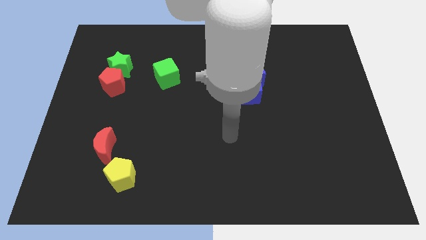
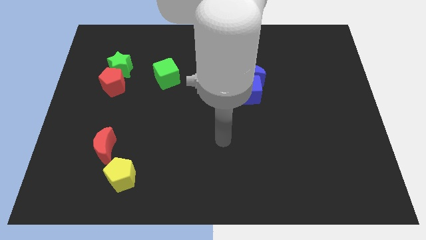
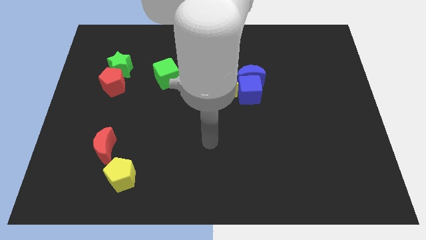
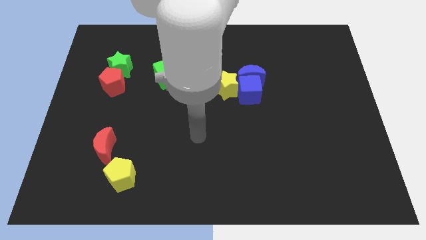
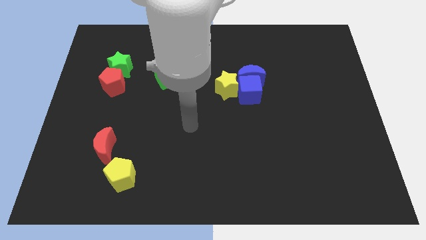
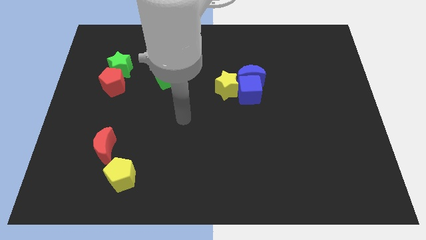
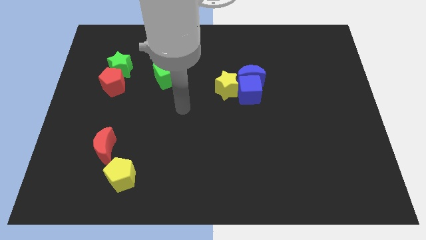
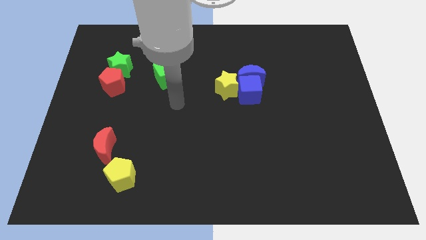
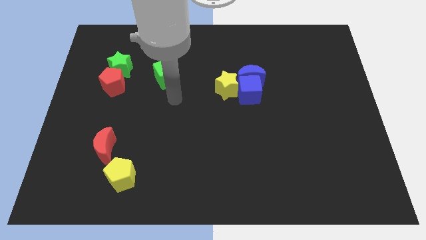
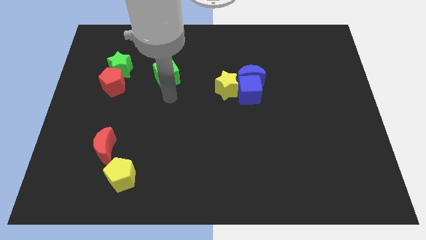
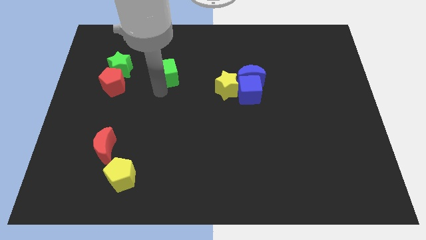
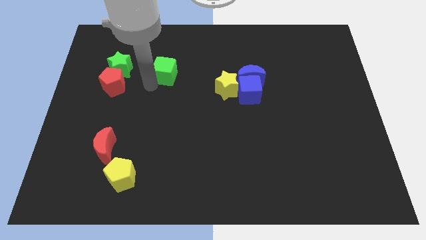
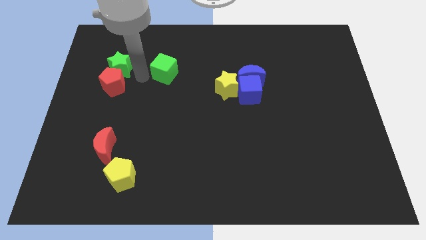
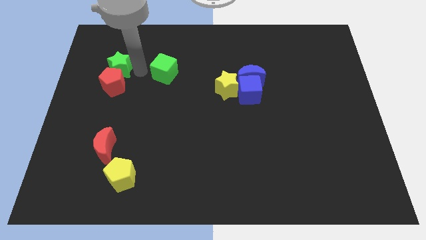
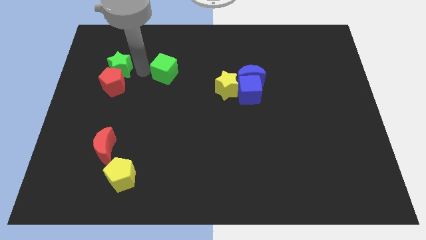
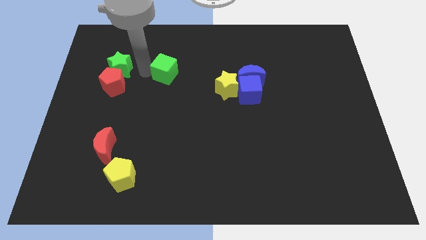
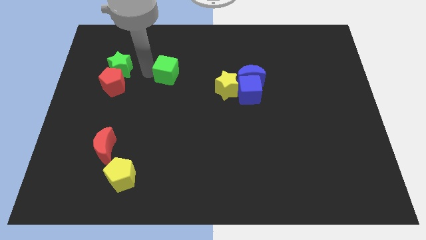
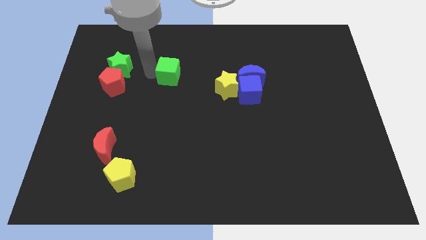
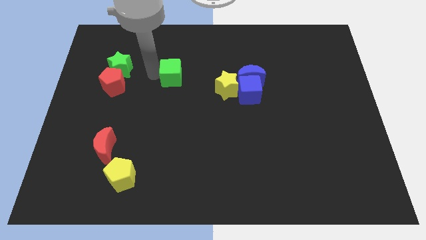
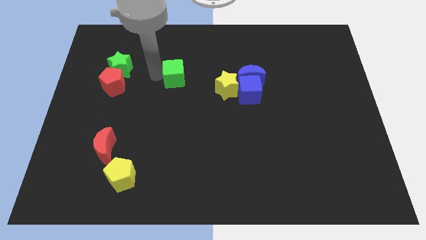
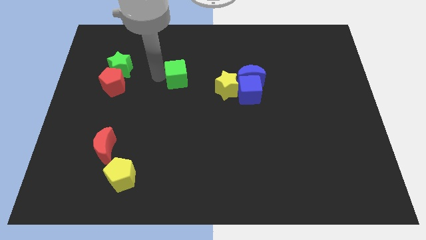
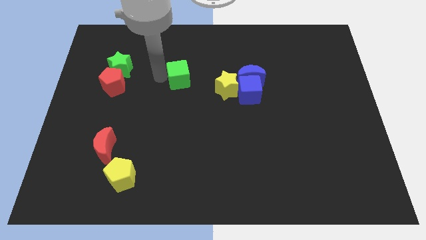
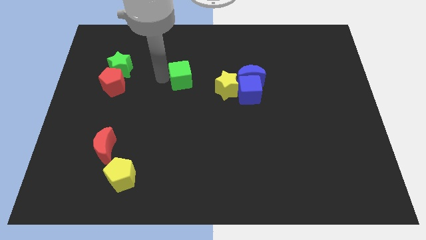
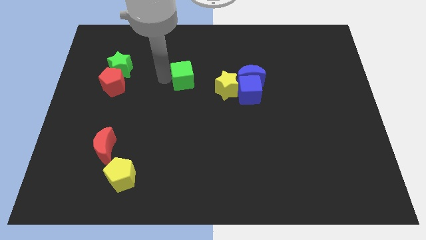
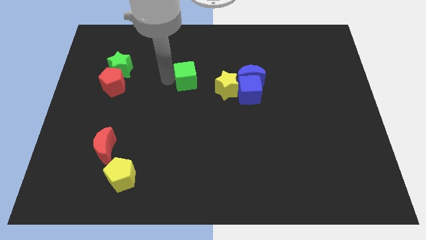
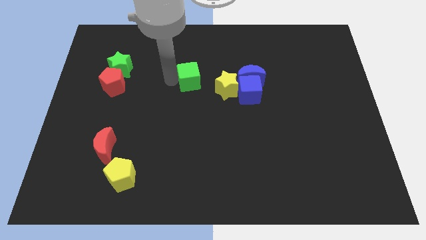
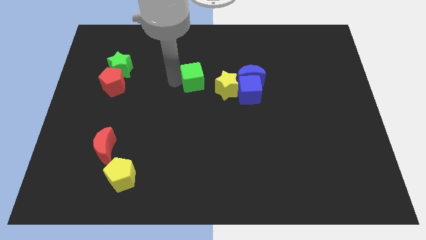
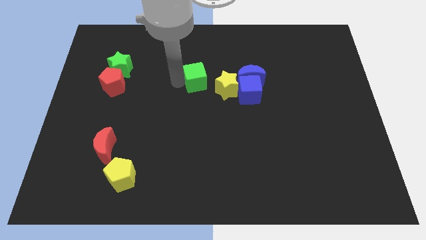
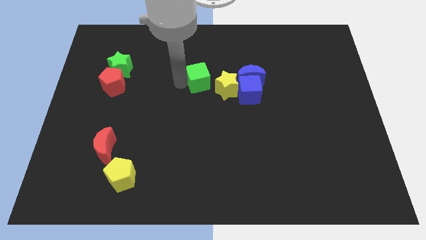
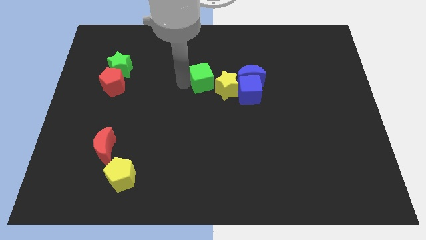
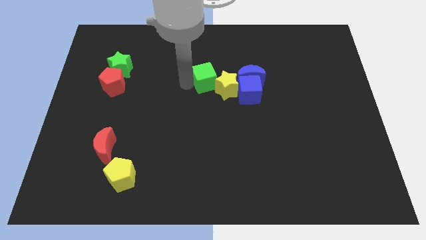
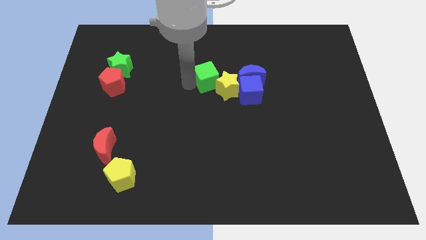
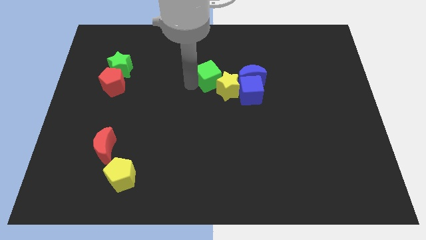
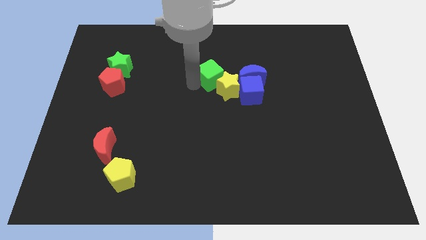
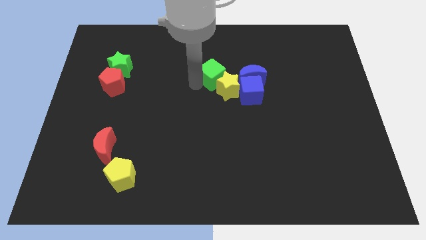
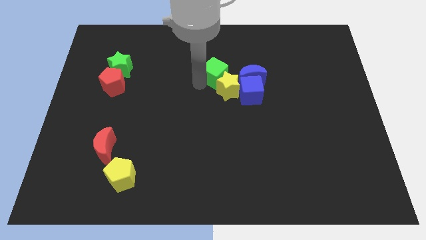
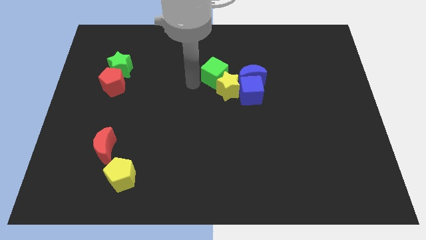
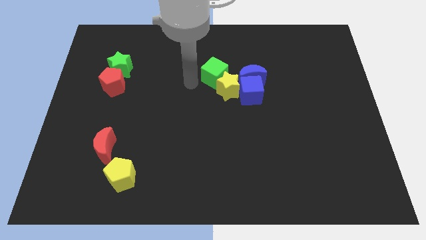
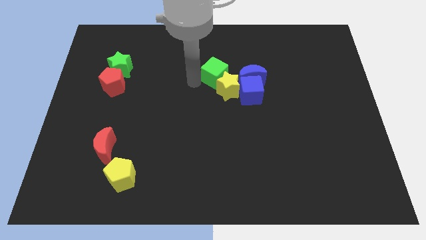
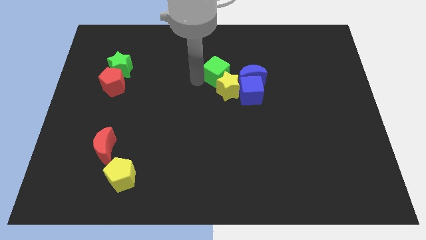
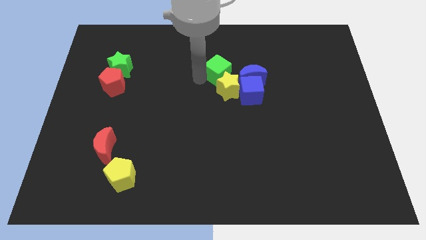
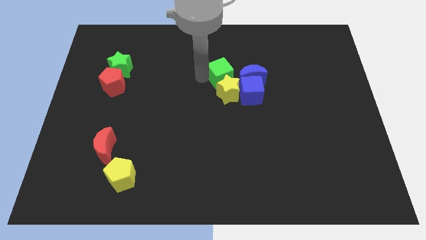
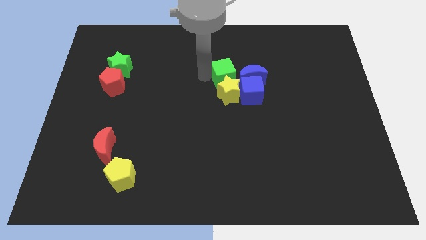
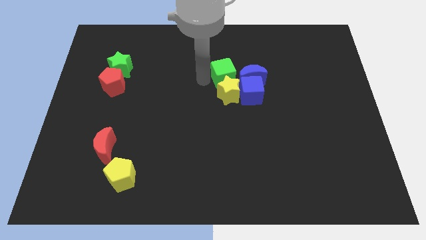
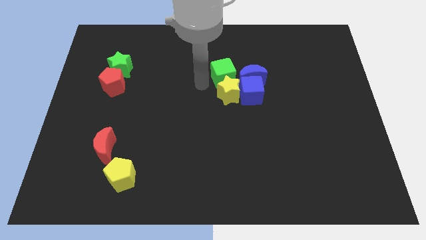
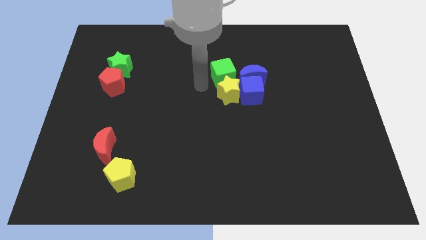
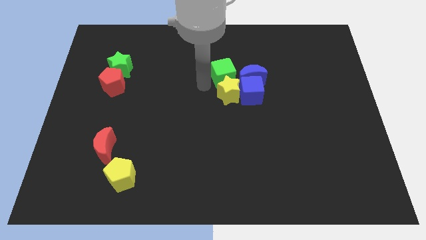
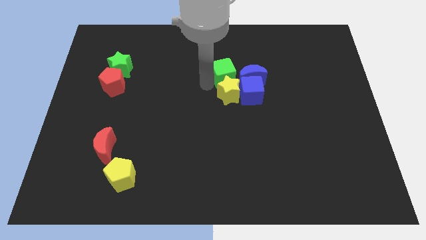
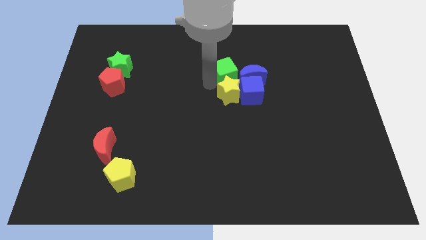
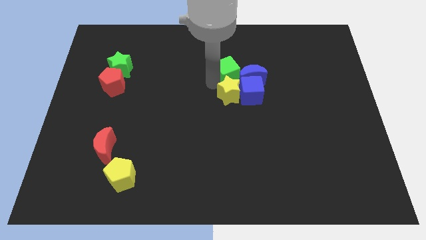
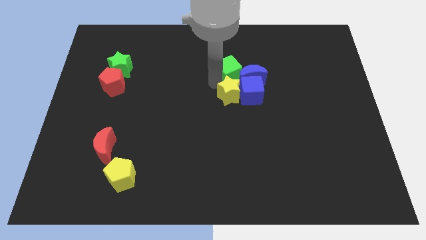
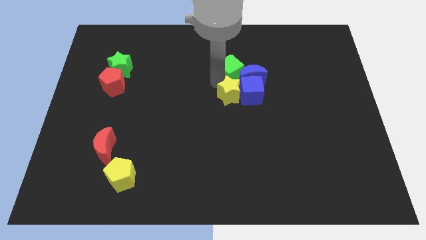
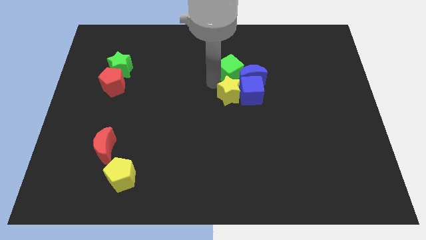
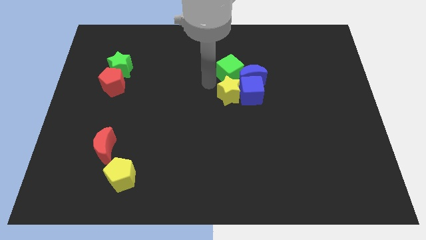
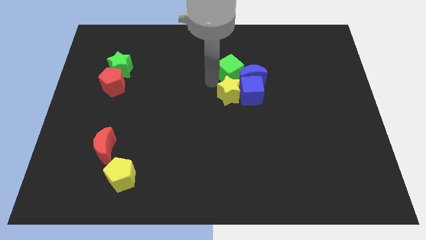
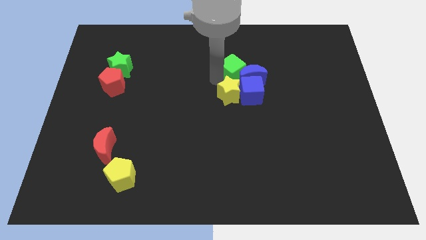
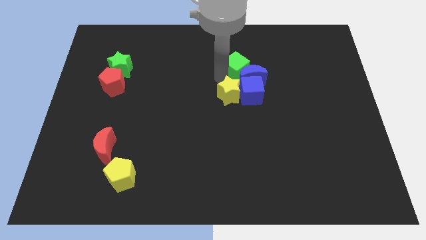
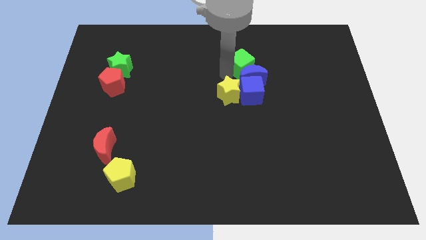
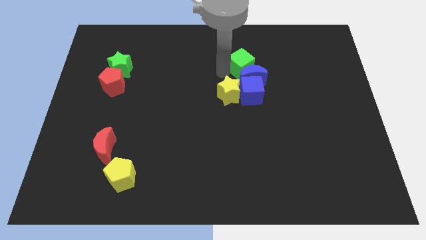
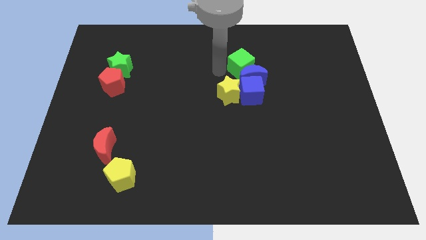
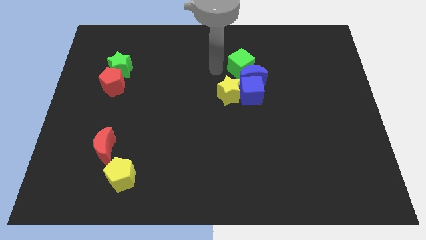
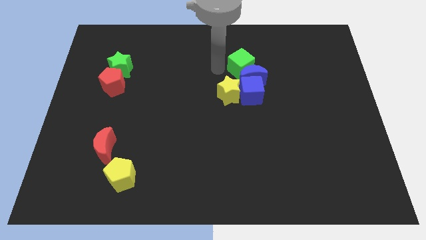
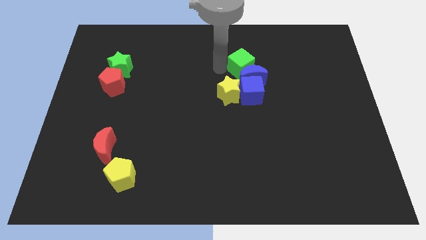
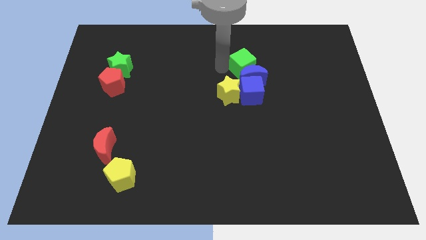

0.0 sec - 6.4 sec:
move the green cube diagonally up and to the right of the blue moon
